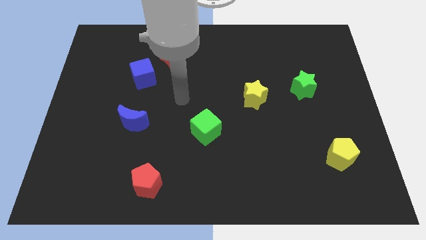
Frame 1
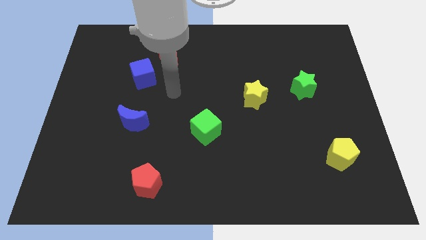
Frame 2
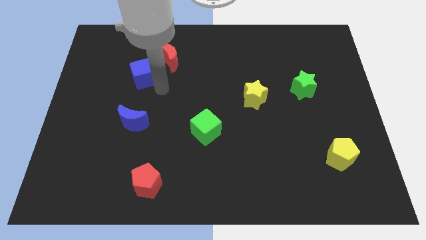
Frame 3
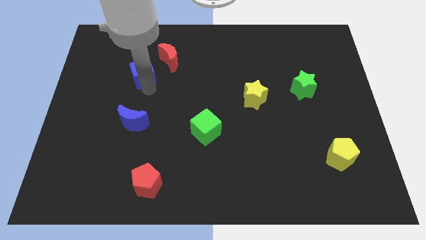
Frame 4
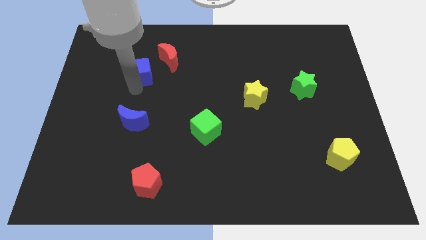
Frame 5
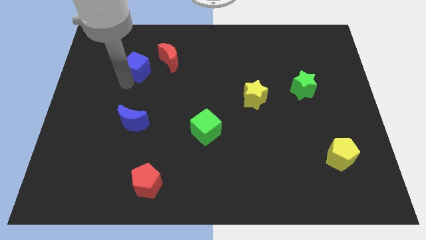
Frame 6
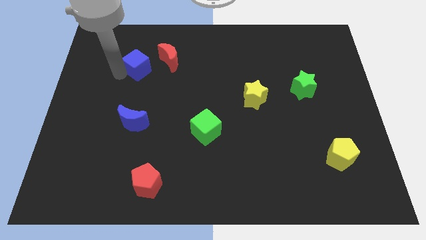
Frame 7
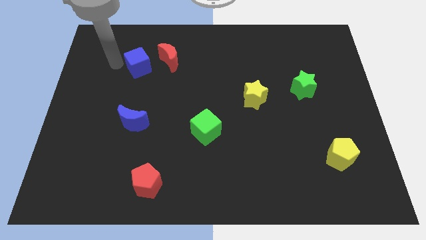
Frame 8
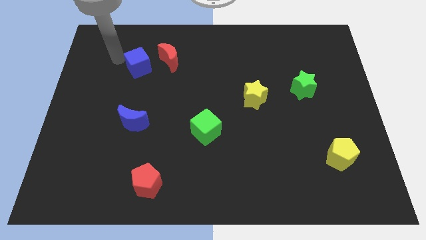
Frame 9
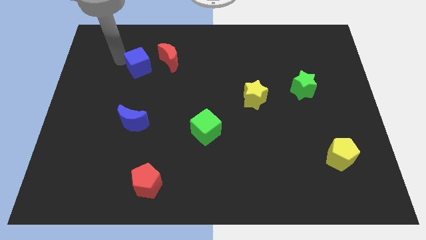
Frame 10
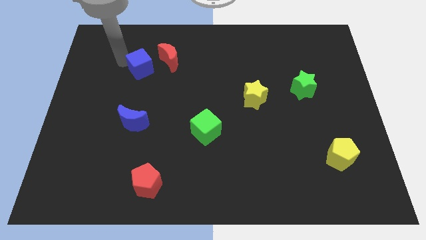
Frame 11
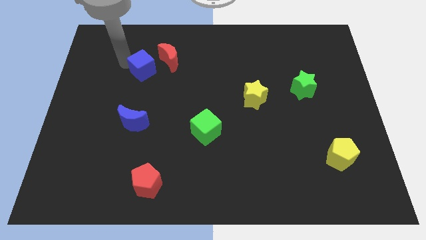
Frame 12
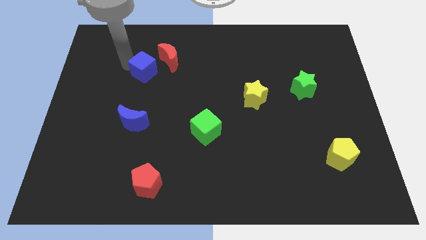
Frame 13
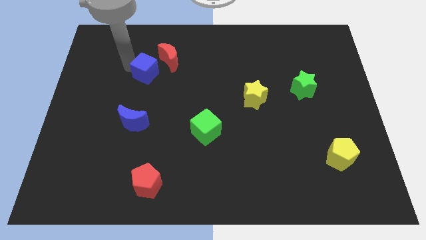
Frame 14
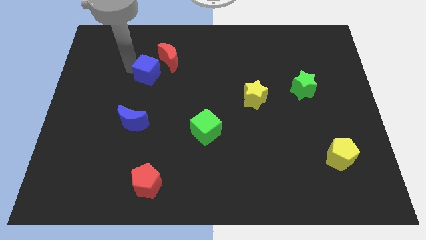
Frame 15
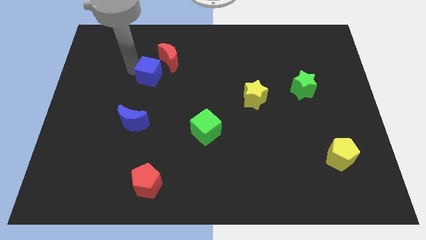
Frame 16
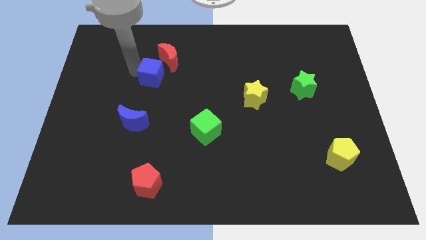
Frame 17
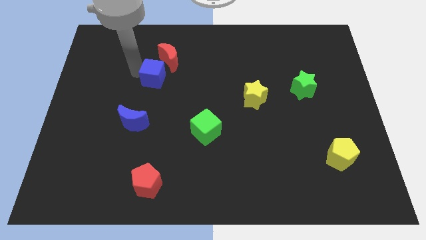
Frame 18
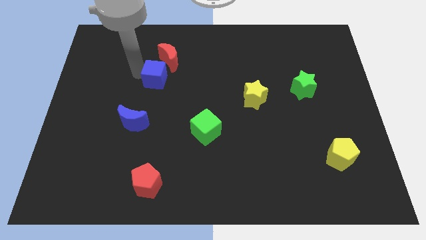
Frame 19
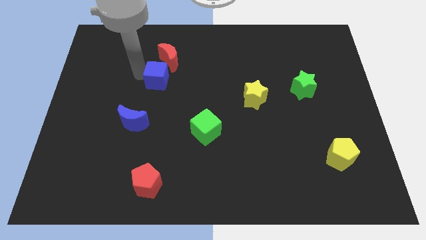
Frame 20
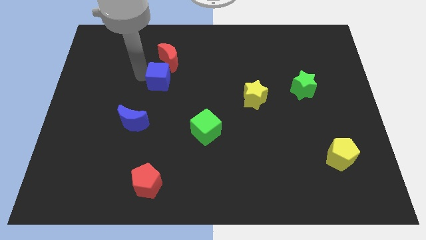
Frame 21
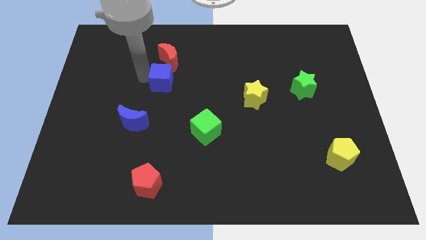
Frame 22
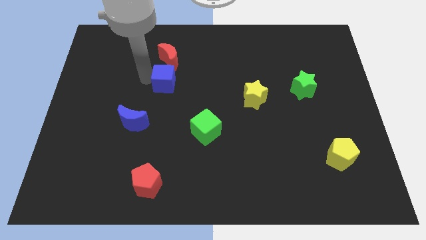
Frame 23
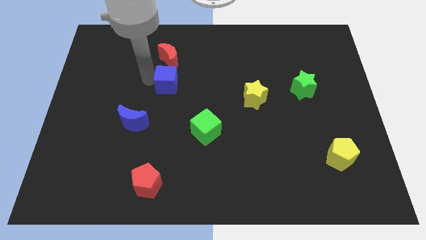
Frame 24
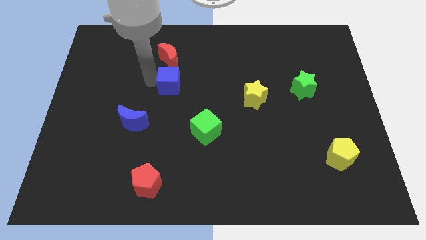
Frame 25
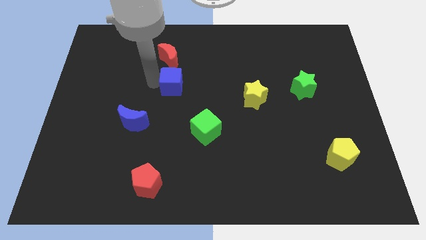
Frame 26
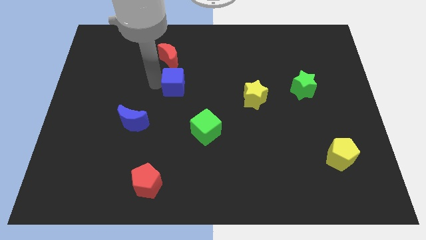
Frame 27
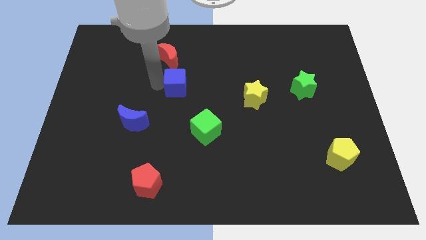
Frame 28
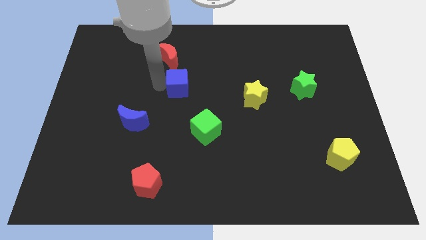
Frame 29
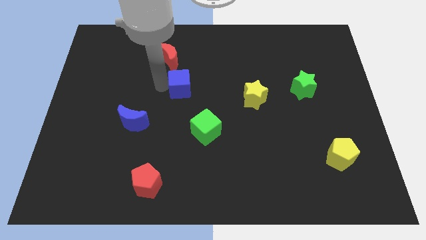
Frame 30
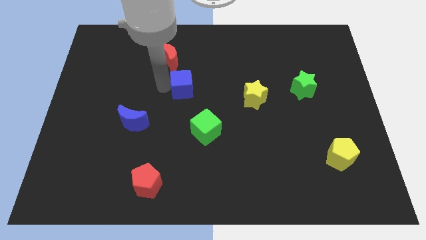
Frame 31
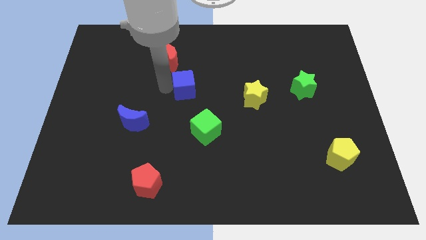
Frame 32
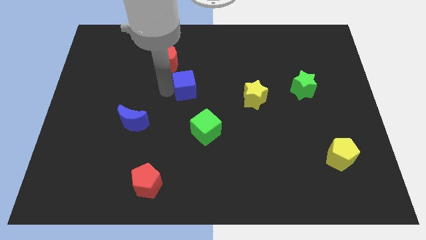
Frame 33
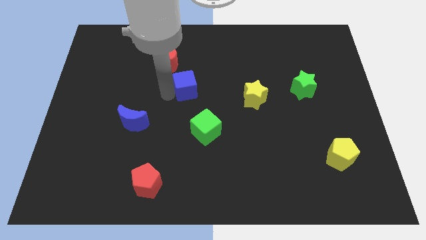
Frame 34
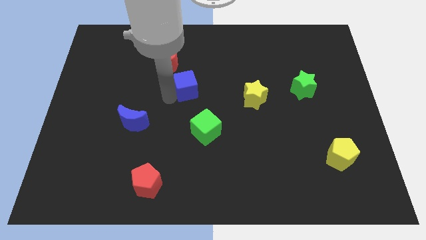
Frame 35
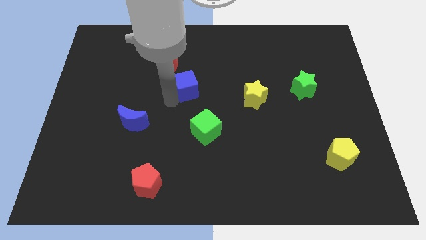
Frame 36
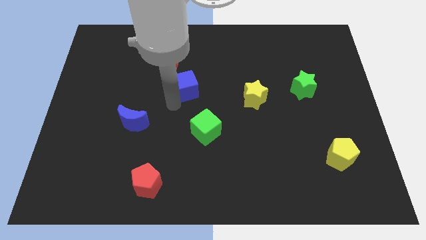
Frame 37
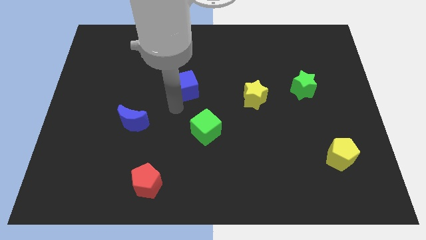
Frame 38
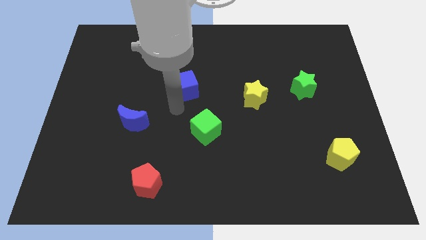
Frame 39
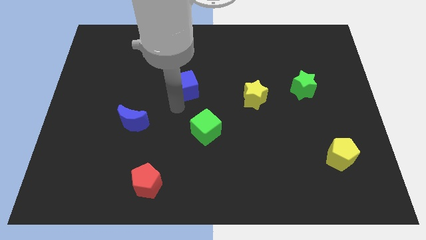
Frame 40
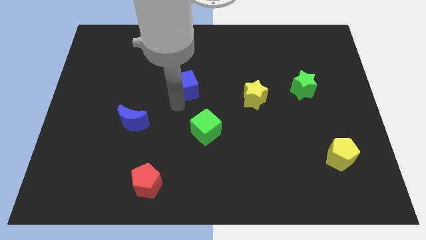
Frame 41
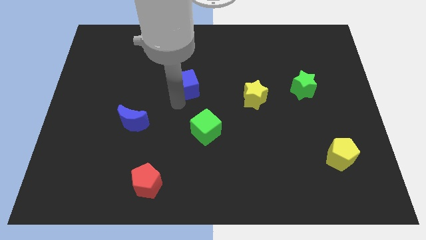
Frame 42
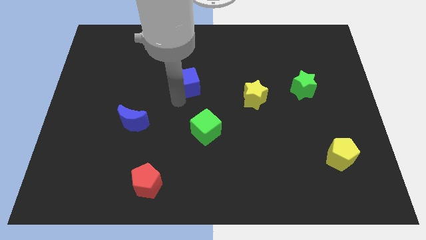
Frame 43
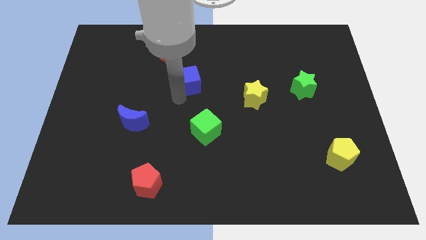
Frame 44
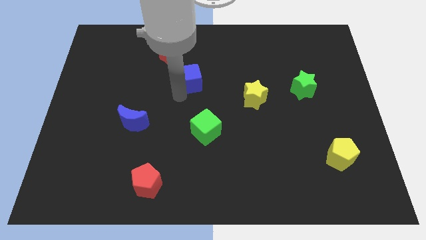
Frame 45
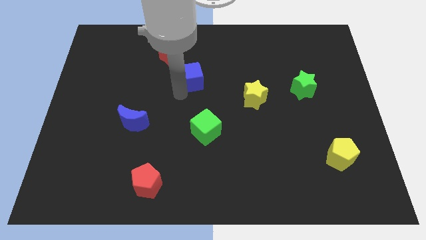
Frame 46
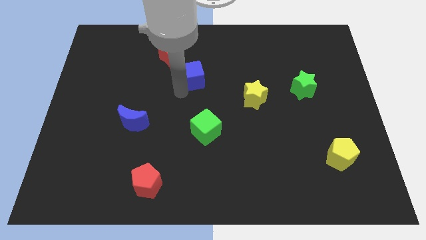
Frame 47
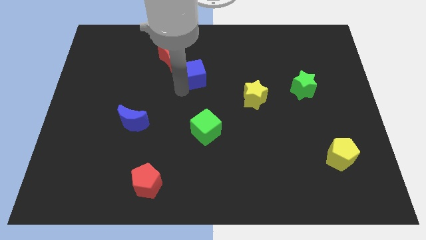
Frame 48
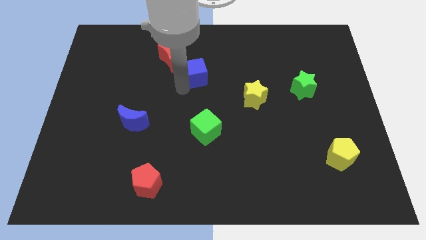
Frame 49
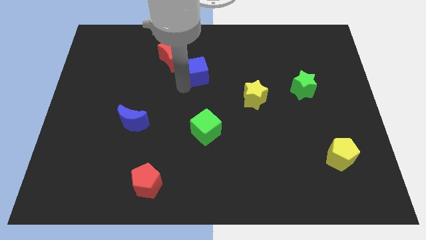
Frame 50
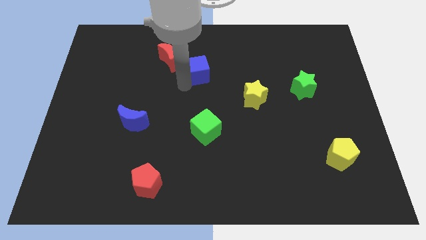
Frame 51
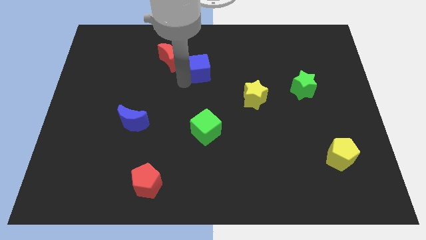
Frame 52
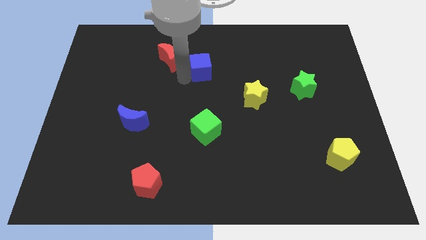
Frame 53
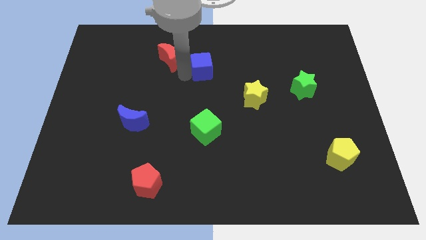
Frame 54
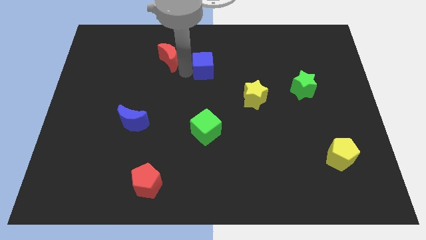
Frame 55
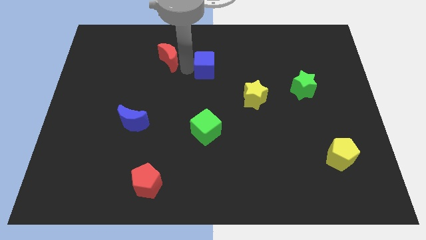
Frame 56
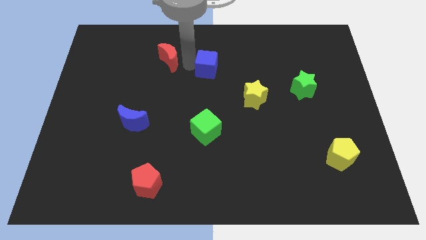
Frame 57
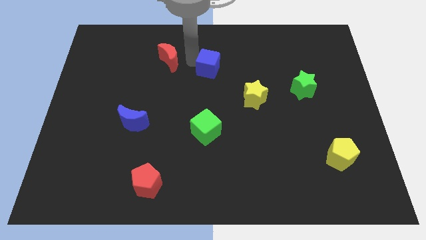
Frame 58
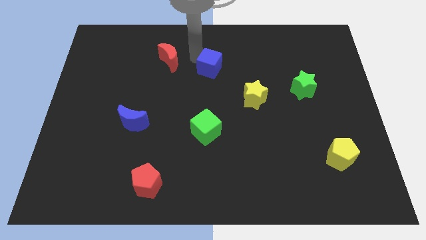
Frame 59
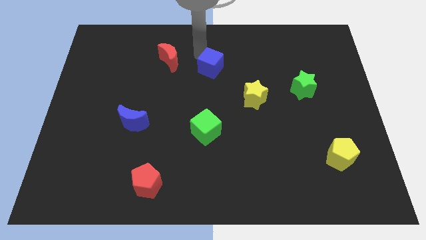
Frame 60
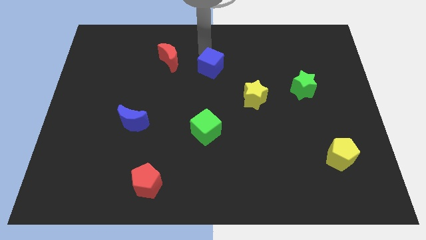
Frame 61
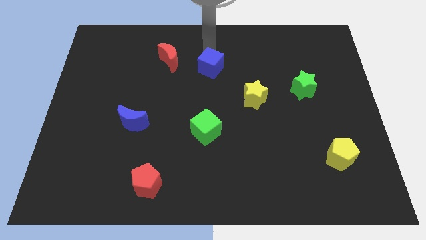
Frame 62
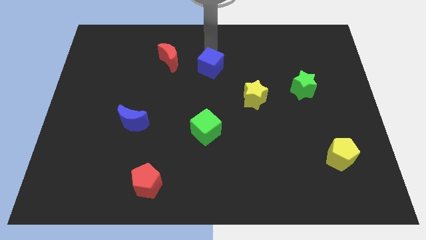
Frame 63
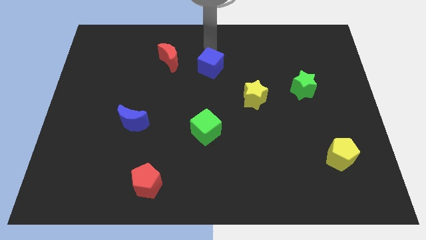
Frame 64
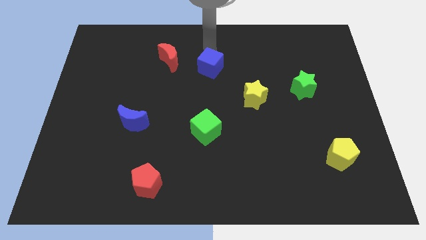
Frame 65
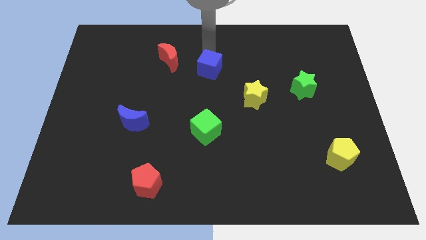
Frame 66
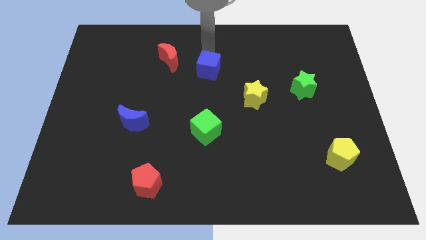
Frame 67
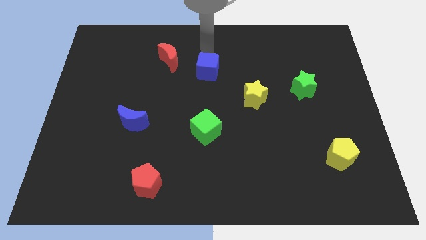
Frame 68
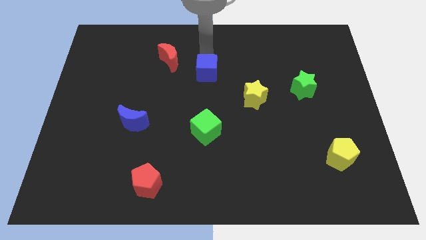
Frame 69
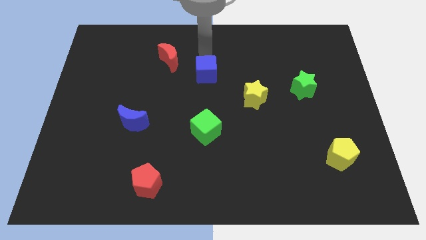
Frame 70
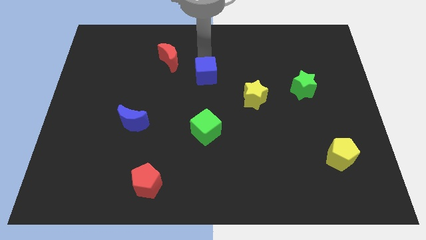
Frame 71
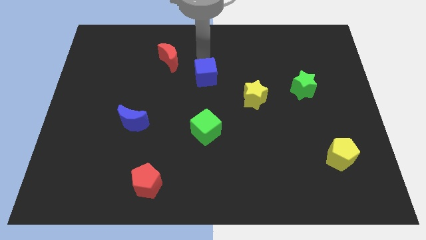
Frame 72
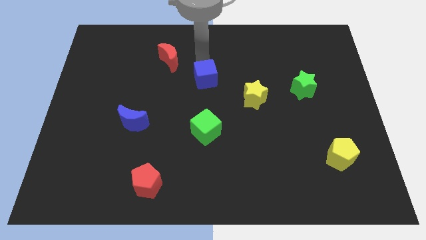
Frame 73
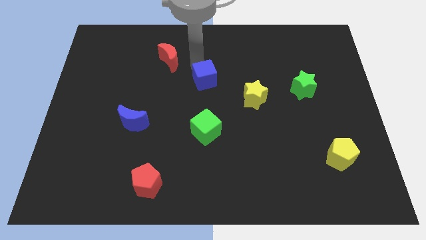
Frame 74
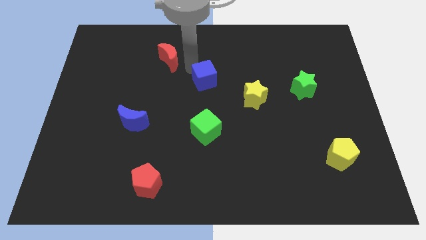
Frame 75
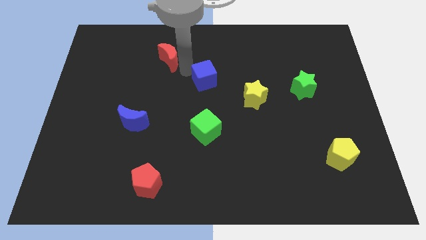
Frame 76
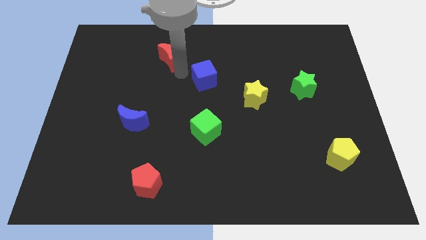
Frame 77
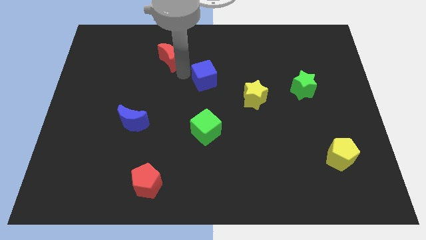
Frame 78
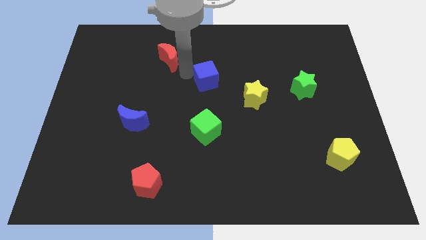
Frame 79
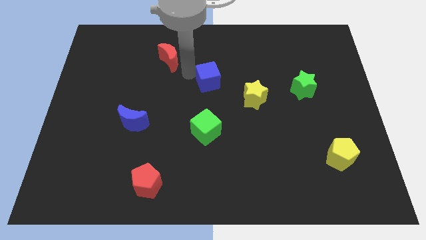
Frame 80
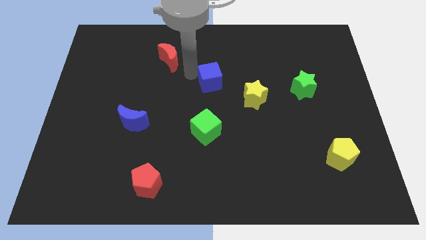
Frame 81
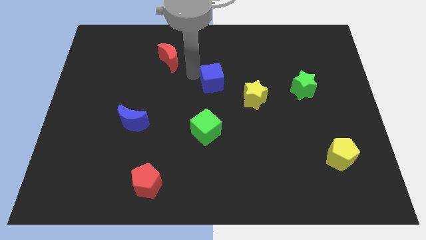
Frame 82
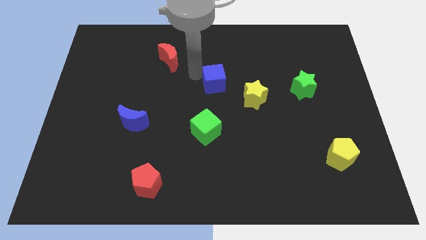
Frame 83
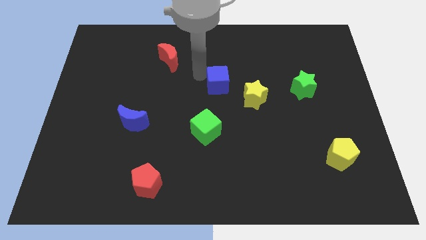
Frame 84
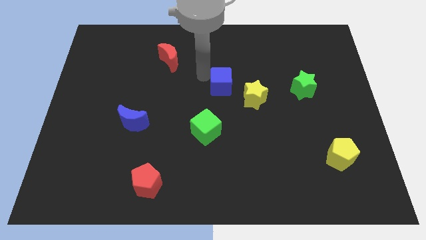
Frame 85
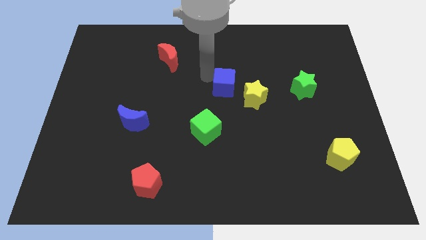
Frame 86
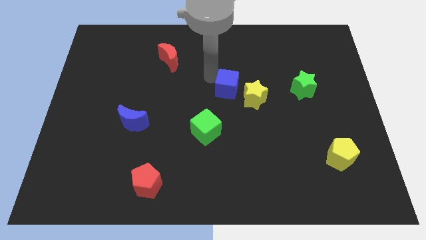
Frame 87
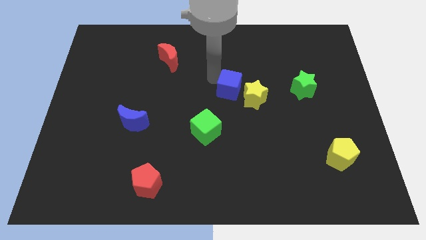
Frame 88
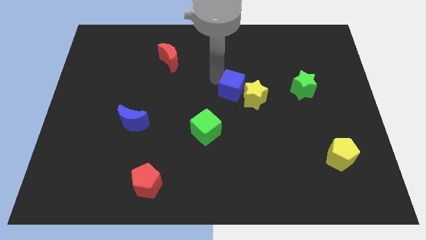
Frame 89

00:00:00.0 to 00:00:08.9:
put the blue cube towards the yellow star
